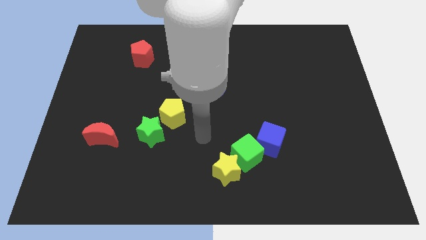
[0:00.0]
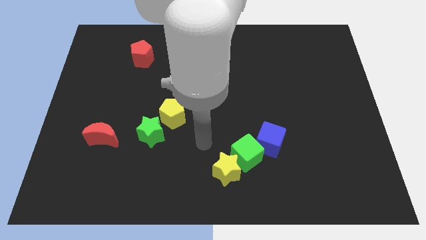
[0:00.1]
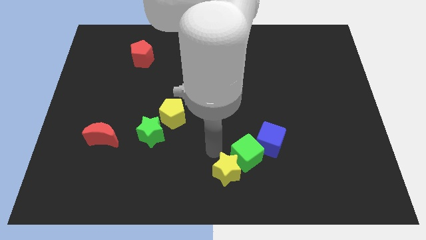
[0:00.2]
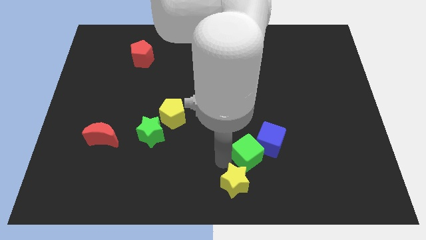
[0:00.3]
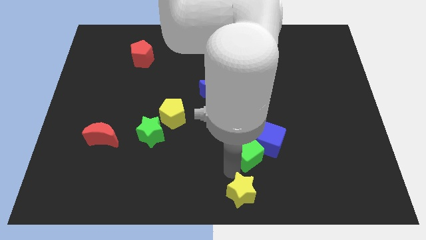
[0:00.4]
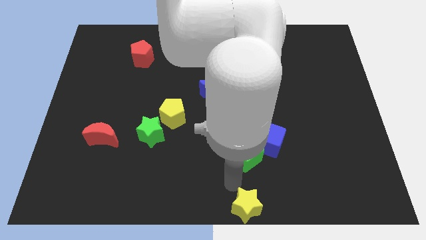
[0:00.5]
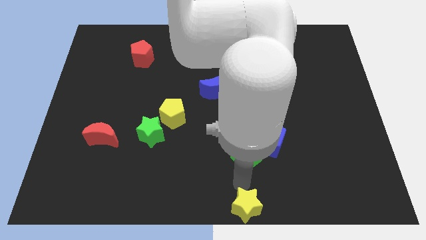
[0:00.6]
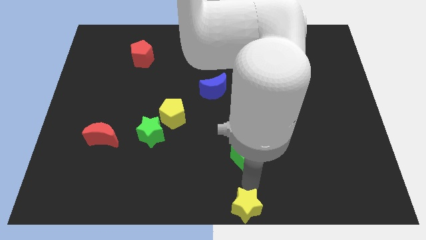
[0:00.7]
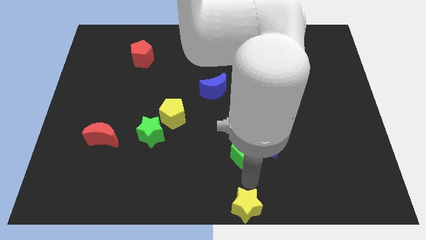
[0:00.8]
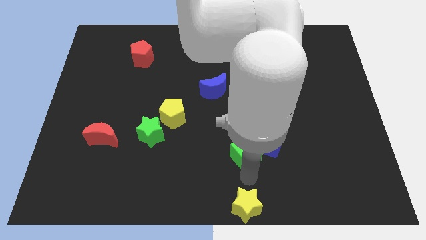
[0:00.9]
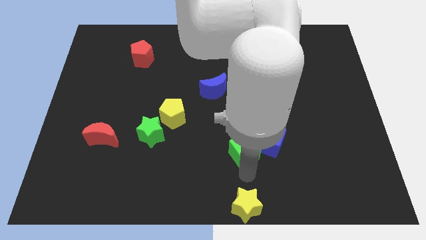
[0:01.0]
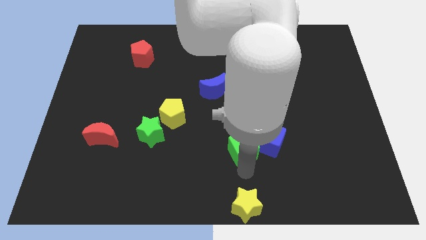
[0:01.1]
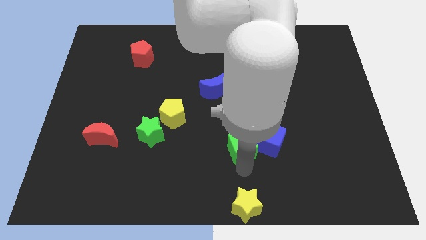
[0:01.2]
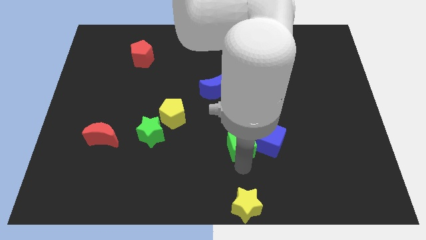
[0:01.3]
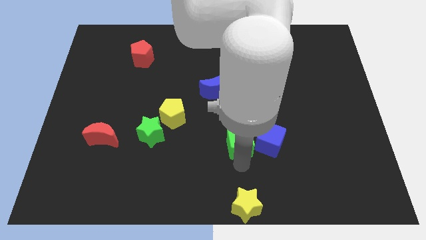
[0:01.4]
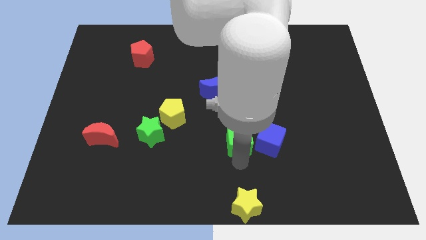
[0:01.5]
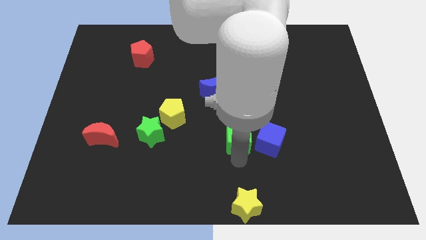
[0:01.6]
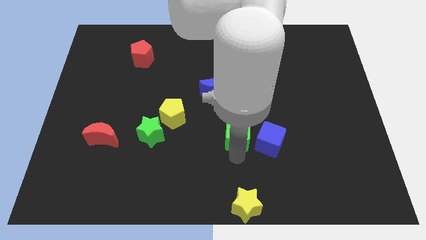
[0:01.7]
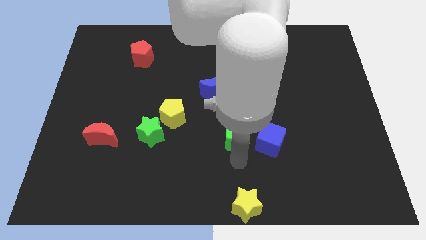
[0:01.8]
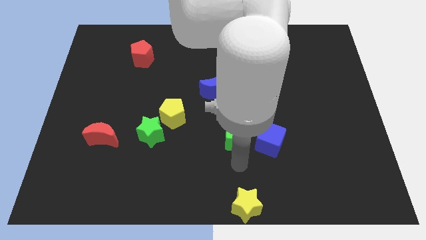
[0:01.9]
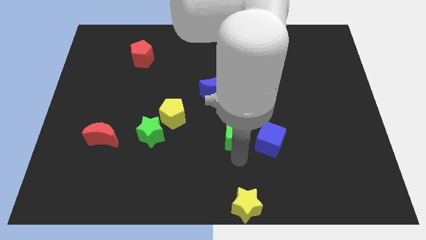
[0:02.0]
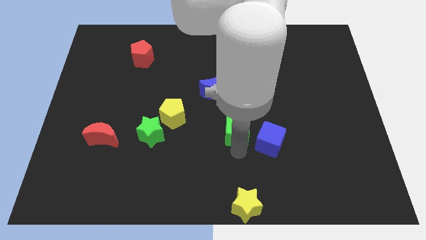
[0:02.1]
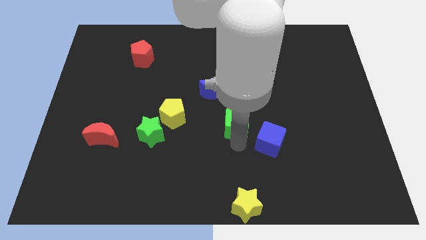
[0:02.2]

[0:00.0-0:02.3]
move the green cube a little upwards

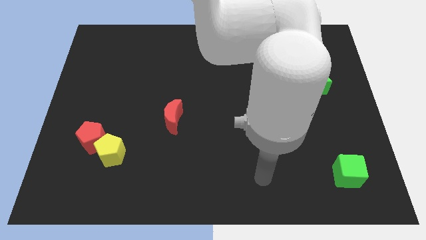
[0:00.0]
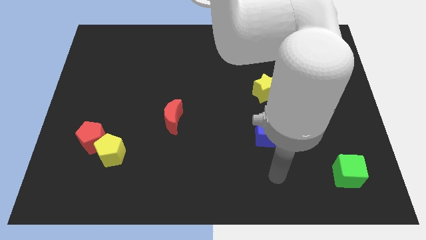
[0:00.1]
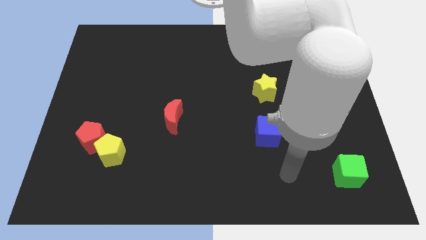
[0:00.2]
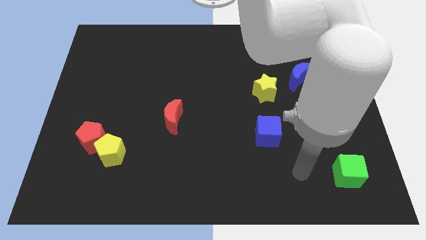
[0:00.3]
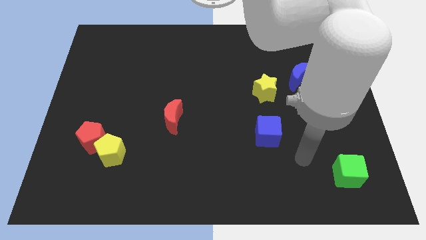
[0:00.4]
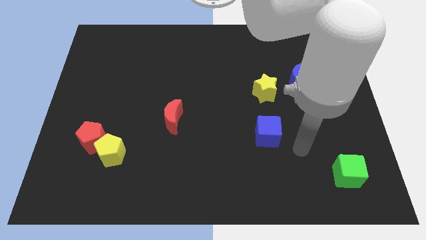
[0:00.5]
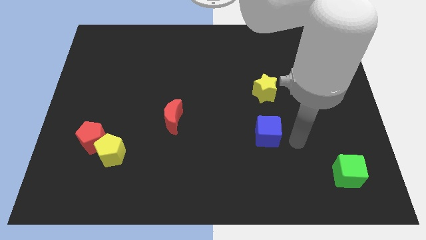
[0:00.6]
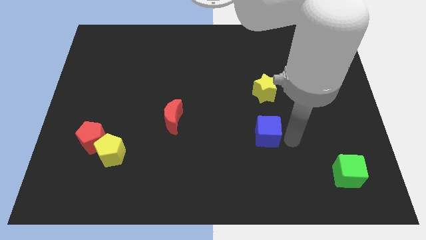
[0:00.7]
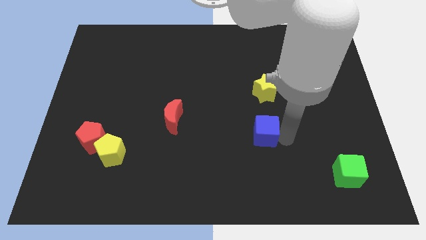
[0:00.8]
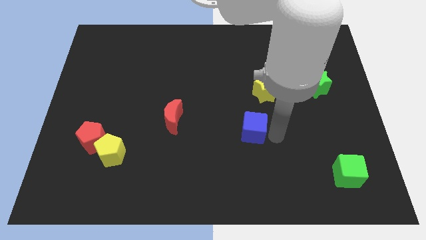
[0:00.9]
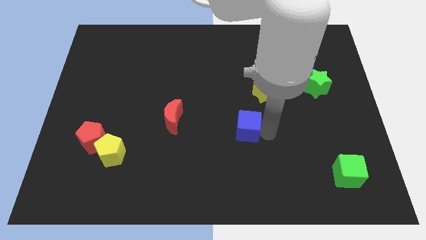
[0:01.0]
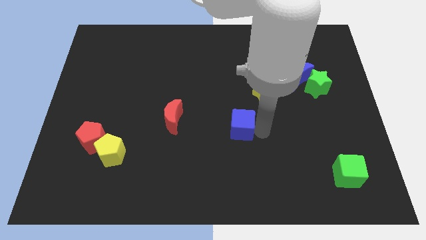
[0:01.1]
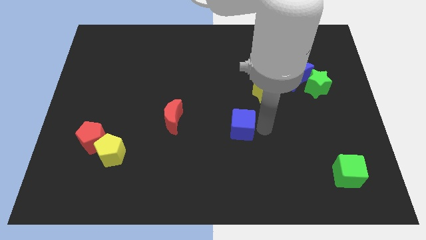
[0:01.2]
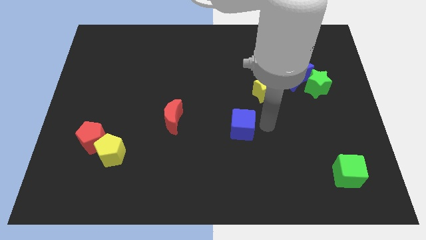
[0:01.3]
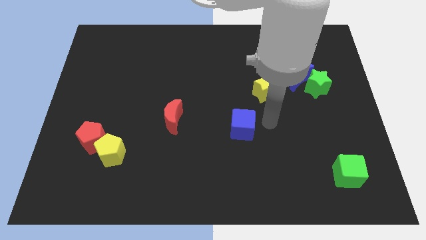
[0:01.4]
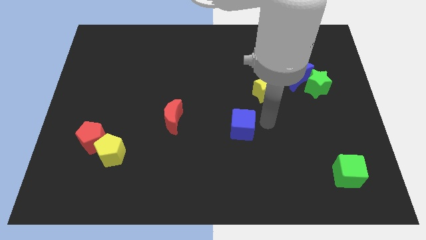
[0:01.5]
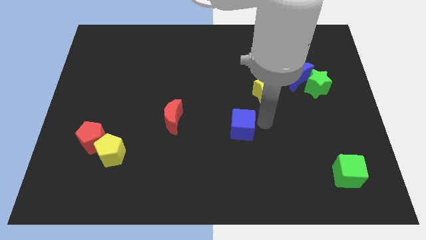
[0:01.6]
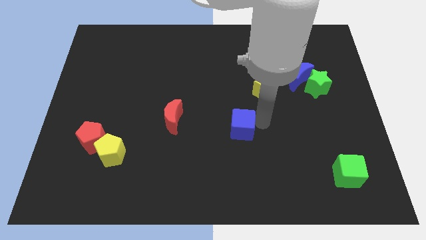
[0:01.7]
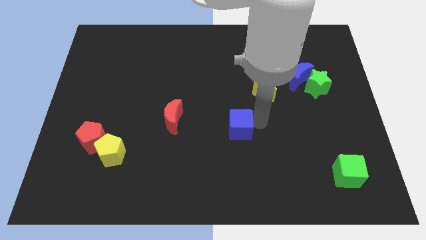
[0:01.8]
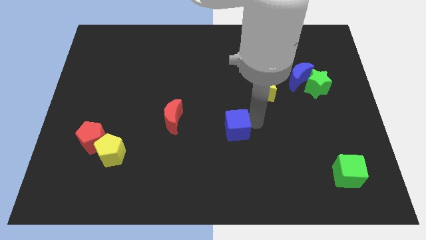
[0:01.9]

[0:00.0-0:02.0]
slightly slide the blue cube to the left

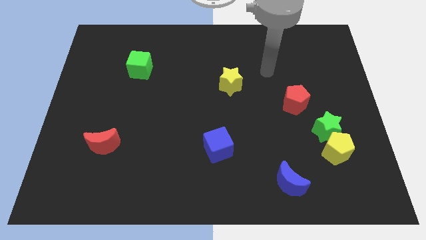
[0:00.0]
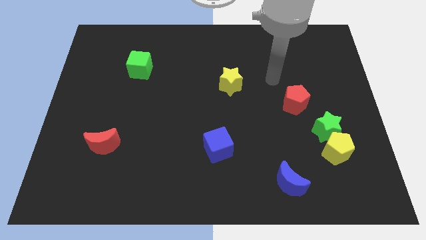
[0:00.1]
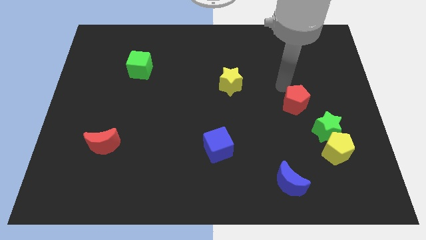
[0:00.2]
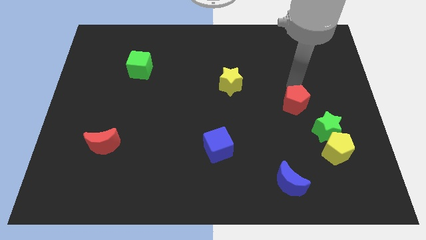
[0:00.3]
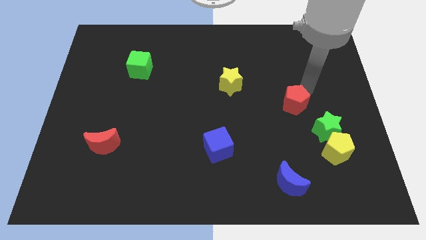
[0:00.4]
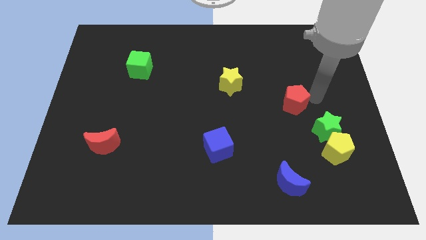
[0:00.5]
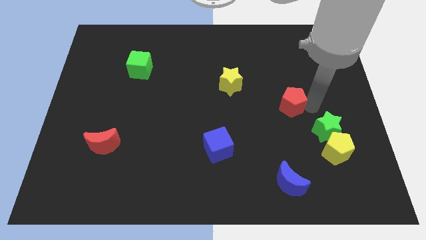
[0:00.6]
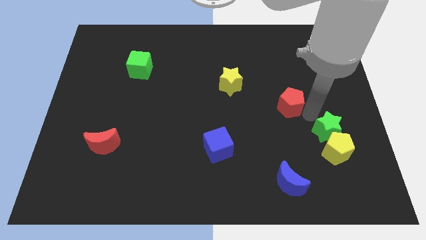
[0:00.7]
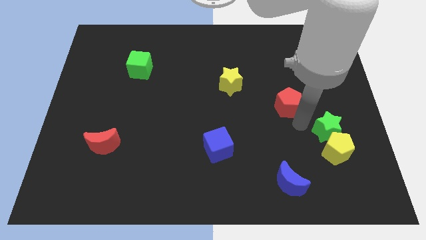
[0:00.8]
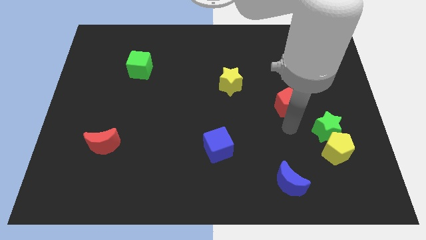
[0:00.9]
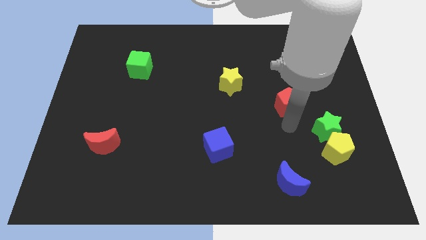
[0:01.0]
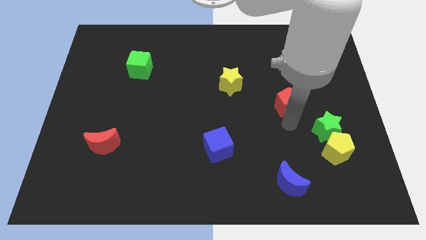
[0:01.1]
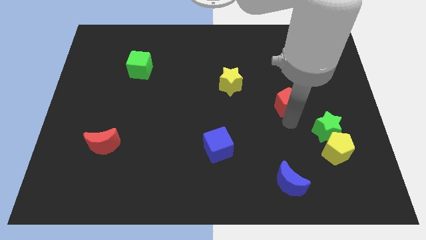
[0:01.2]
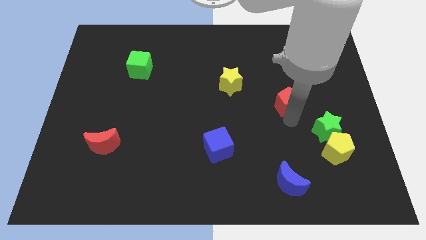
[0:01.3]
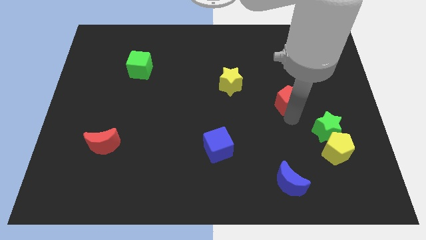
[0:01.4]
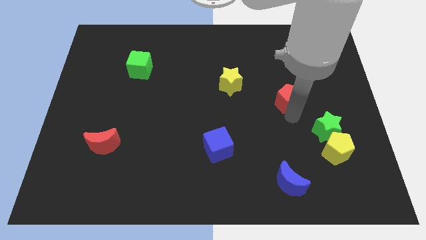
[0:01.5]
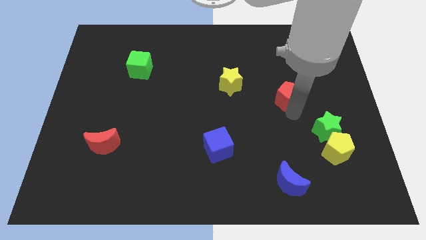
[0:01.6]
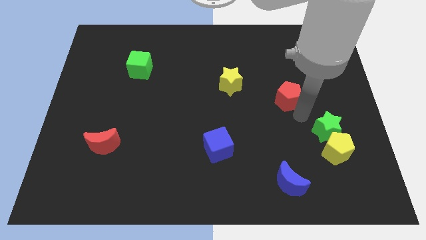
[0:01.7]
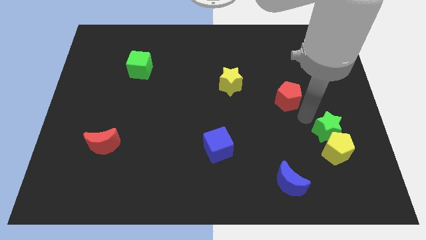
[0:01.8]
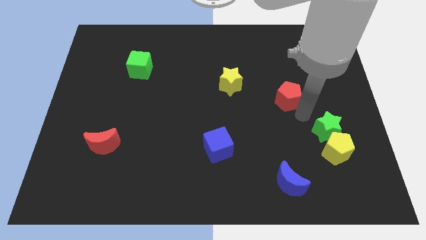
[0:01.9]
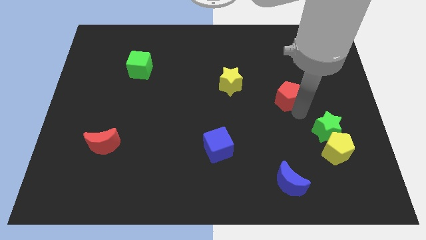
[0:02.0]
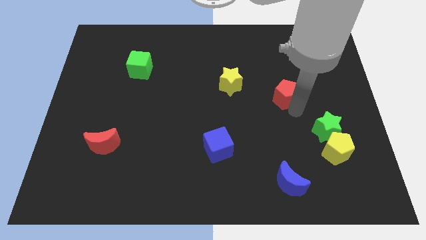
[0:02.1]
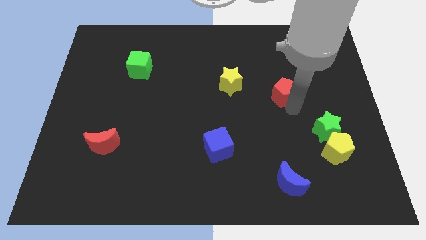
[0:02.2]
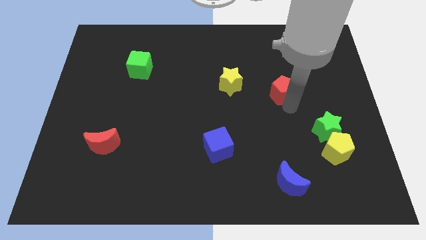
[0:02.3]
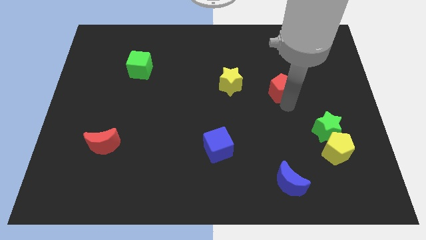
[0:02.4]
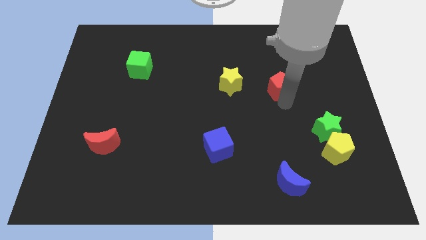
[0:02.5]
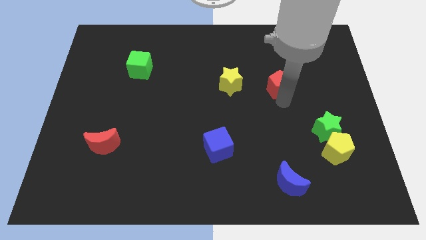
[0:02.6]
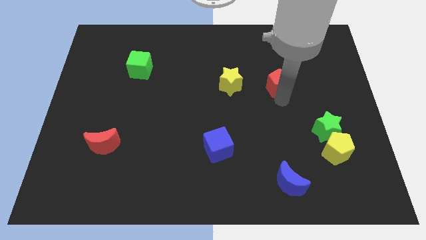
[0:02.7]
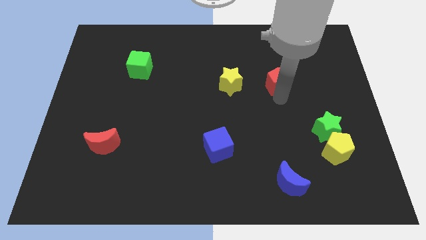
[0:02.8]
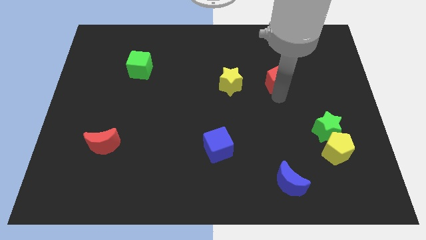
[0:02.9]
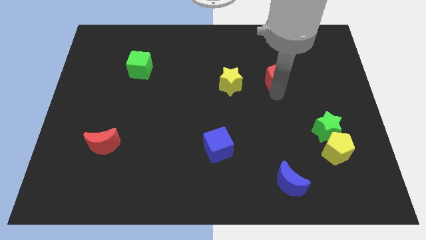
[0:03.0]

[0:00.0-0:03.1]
slide the red pentagon a bit up and left

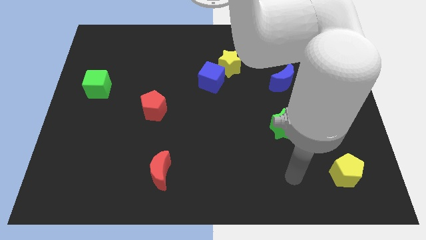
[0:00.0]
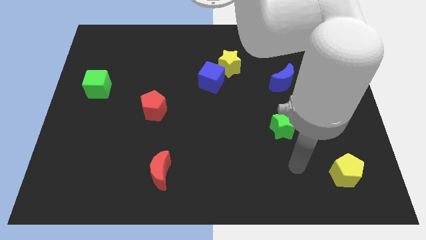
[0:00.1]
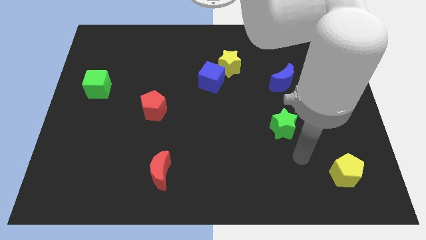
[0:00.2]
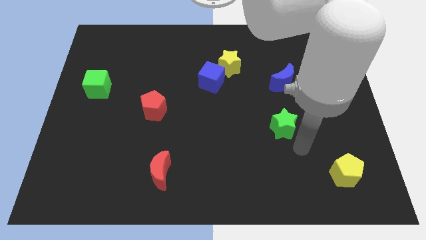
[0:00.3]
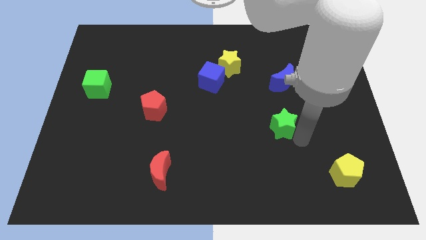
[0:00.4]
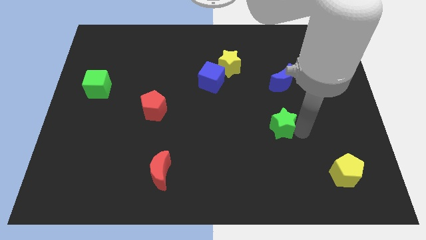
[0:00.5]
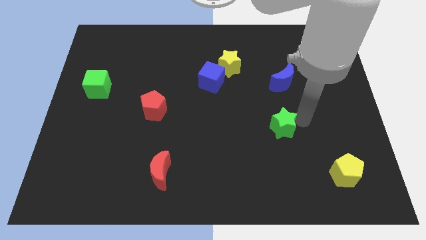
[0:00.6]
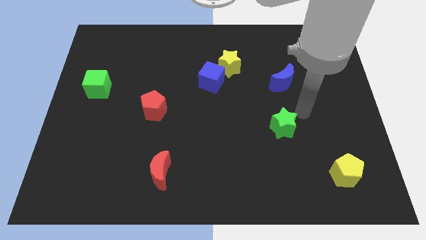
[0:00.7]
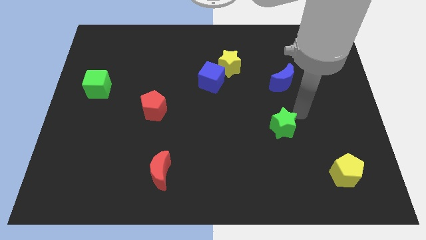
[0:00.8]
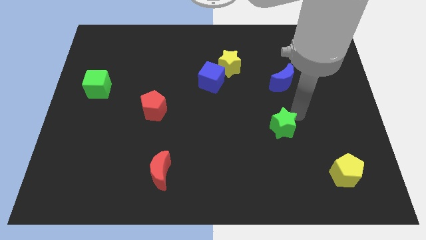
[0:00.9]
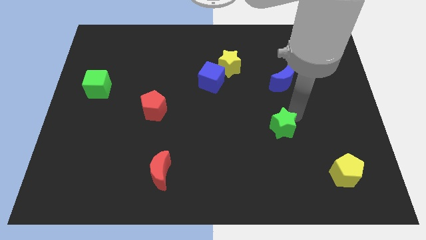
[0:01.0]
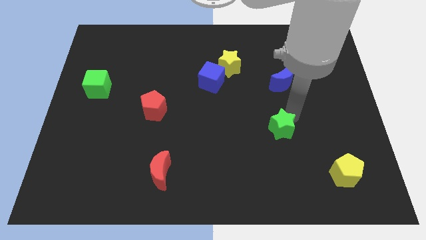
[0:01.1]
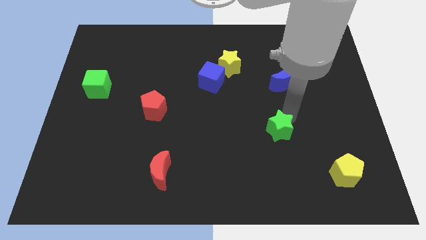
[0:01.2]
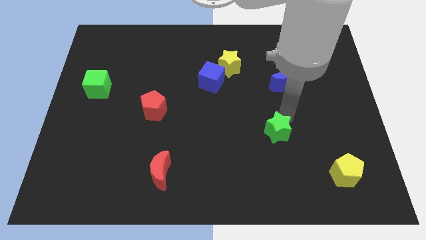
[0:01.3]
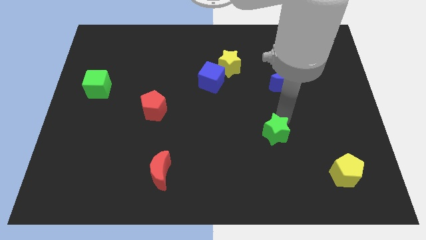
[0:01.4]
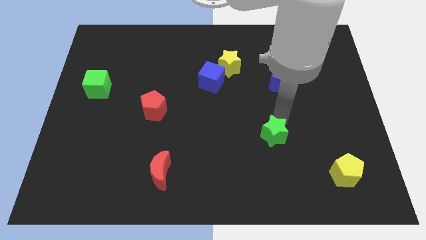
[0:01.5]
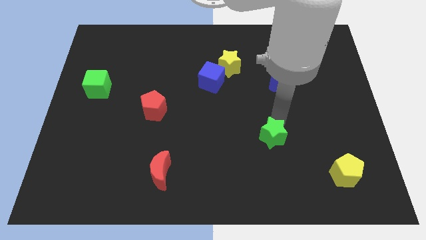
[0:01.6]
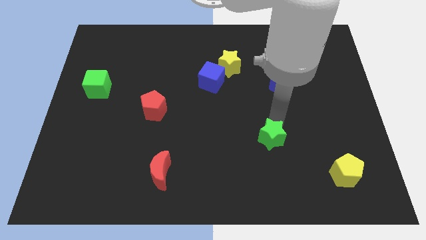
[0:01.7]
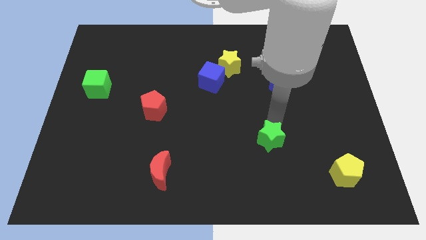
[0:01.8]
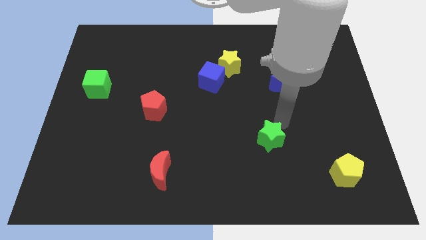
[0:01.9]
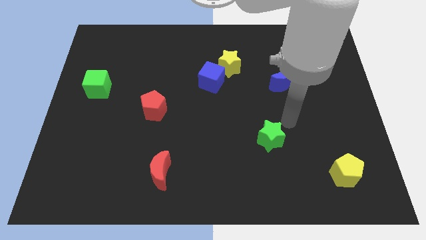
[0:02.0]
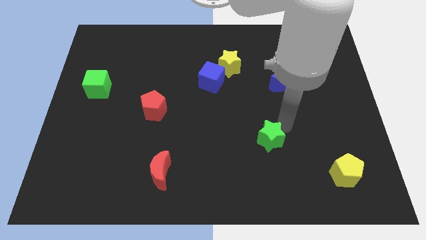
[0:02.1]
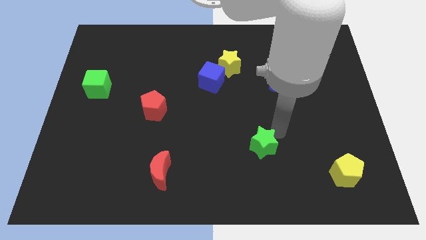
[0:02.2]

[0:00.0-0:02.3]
slightly push the green star down and to the left
